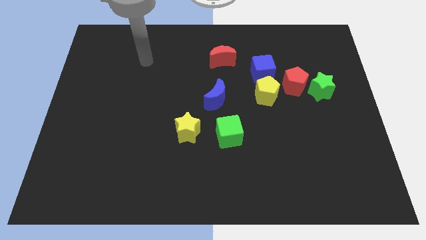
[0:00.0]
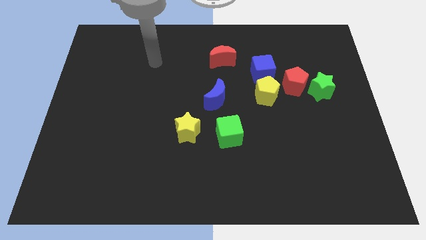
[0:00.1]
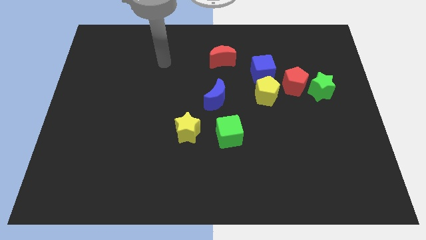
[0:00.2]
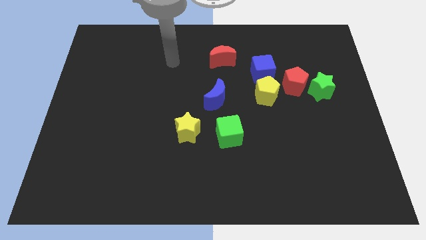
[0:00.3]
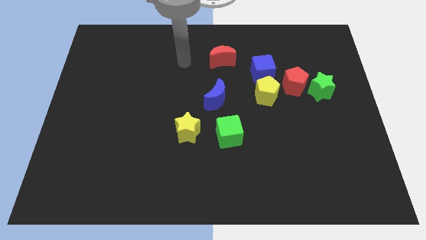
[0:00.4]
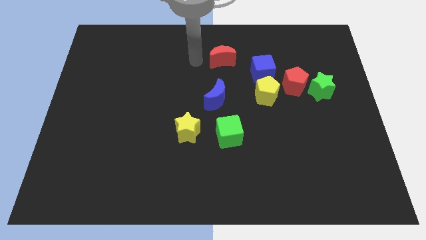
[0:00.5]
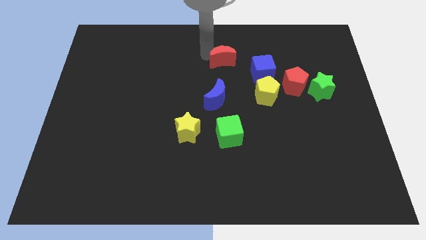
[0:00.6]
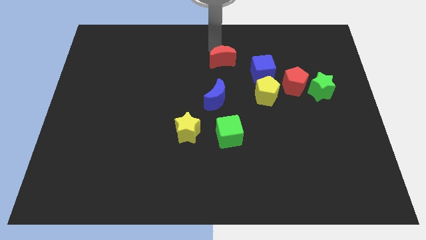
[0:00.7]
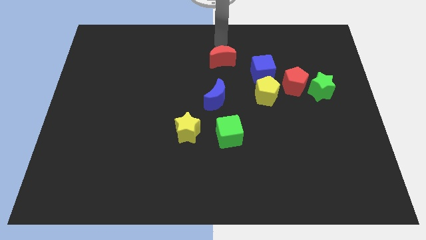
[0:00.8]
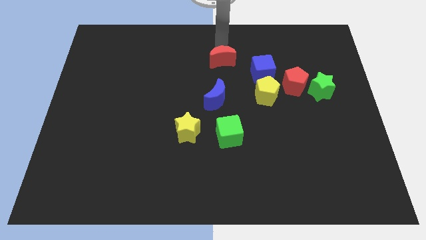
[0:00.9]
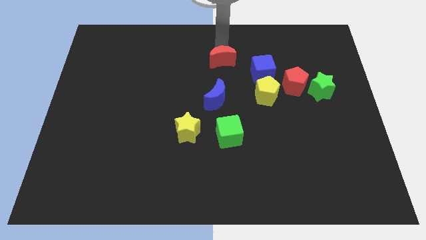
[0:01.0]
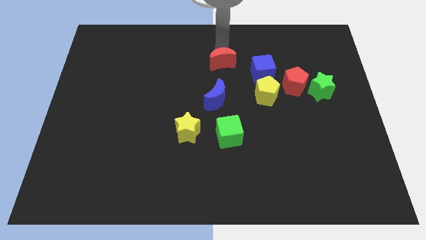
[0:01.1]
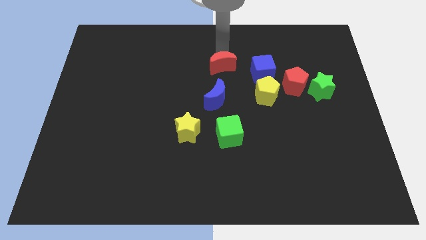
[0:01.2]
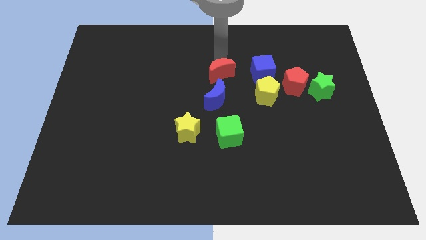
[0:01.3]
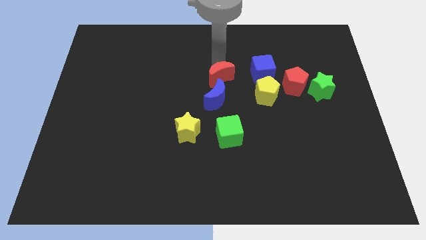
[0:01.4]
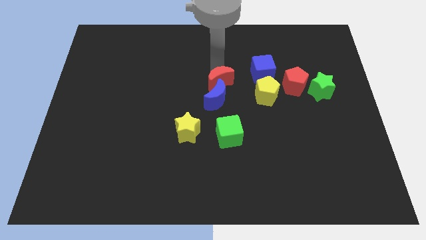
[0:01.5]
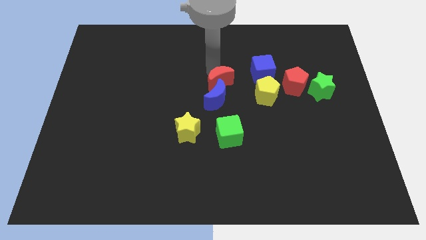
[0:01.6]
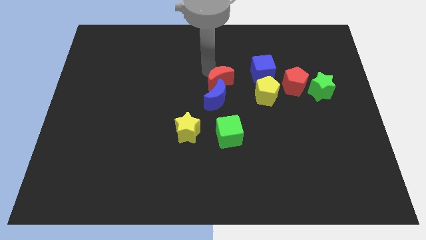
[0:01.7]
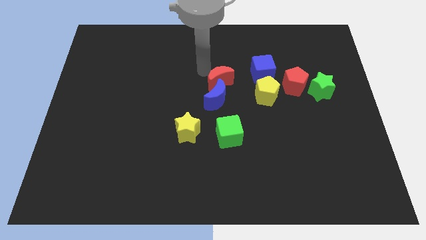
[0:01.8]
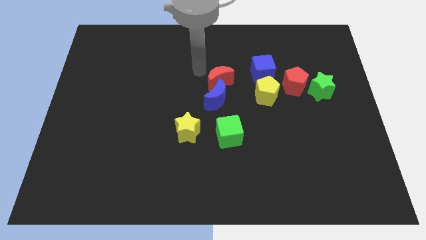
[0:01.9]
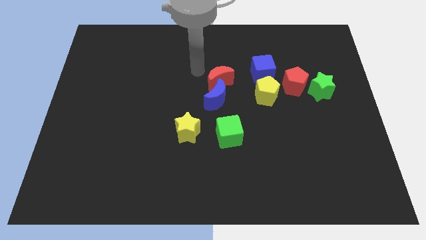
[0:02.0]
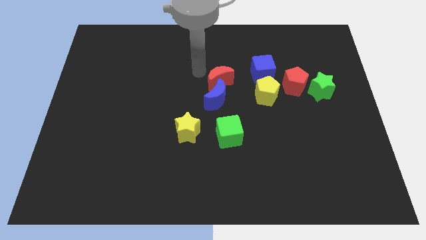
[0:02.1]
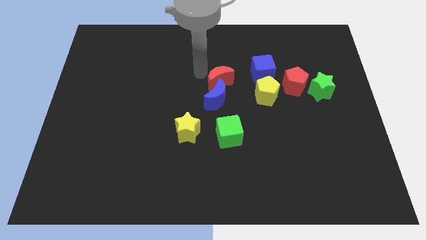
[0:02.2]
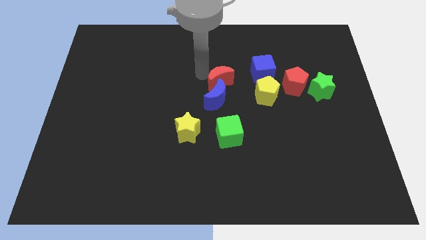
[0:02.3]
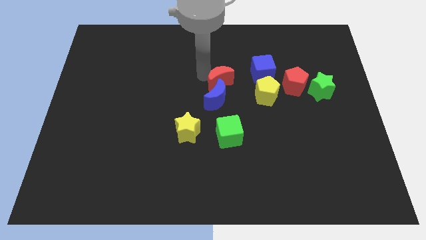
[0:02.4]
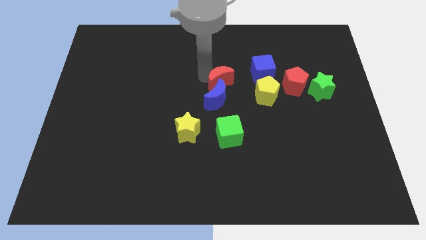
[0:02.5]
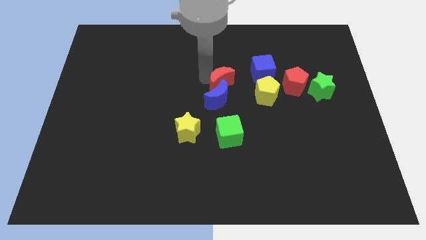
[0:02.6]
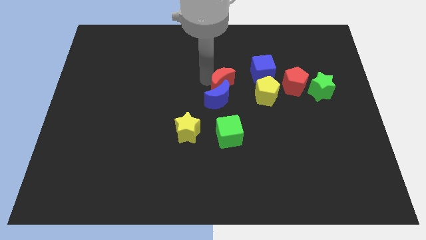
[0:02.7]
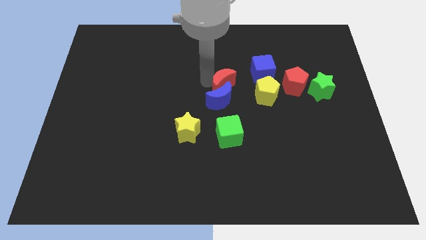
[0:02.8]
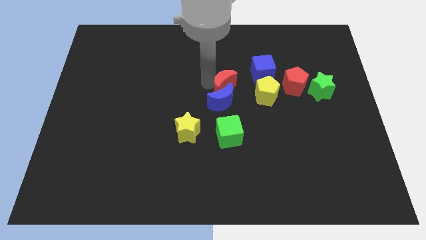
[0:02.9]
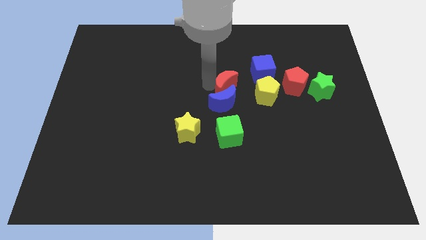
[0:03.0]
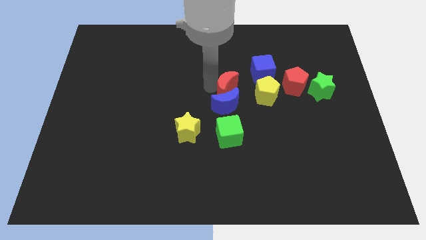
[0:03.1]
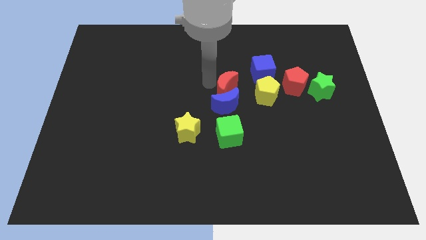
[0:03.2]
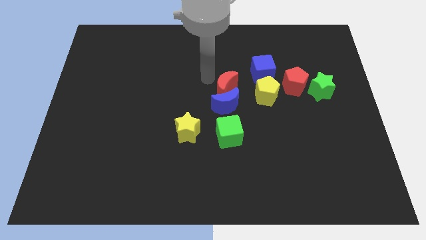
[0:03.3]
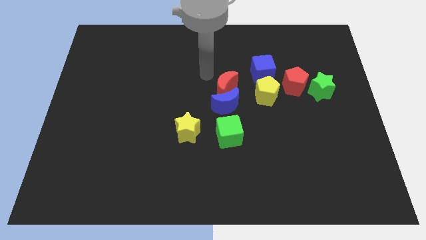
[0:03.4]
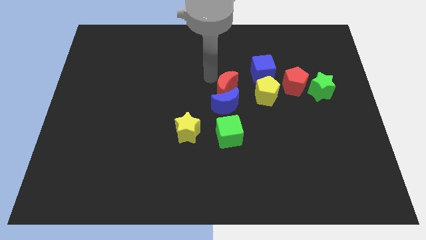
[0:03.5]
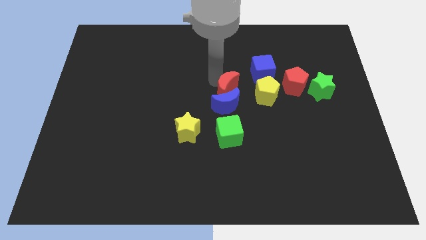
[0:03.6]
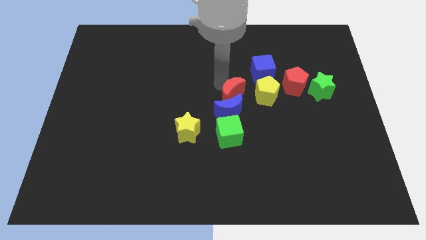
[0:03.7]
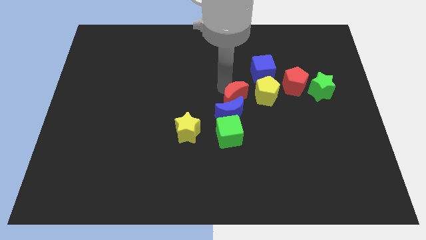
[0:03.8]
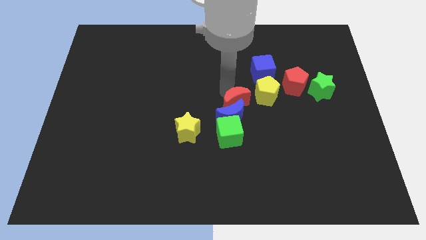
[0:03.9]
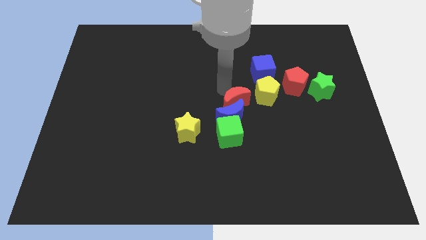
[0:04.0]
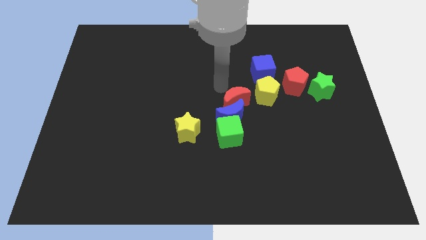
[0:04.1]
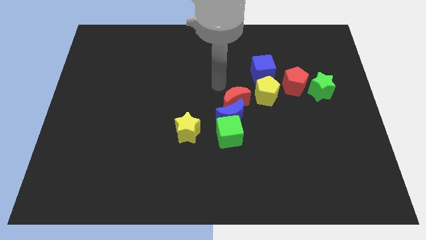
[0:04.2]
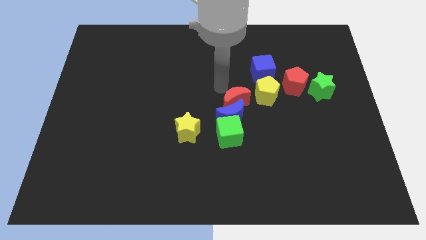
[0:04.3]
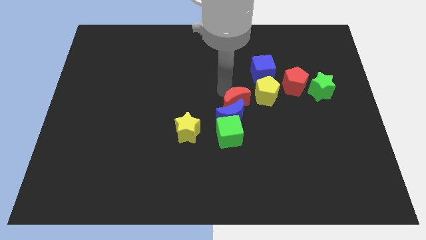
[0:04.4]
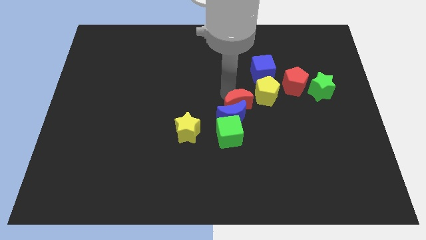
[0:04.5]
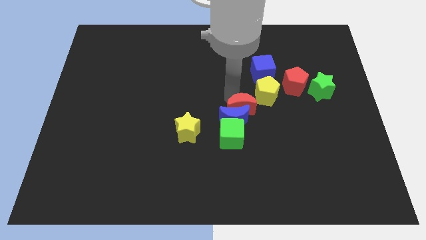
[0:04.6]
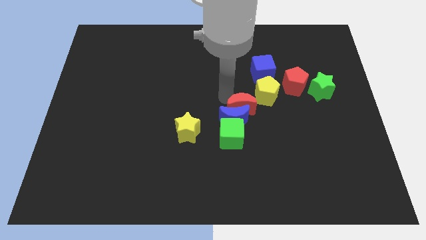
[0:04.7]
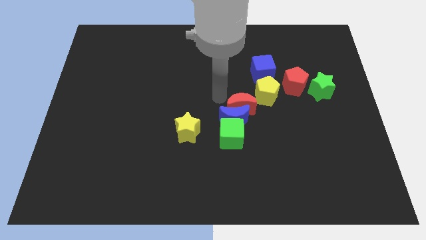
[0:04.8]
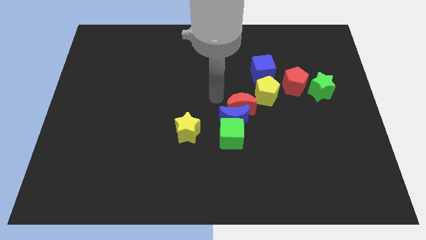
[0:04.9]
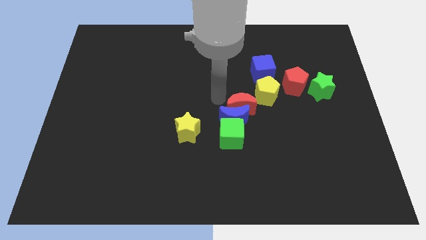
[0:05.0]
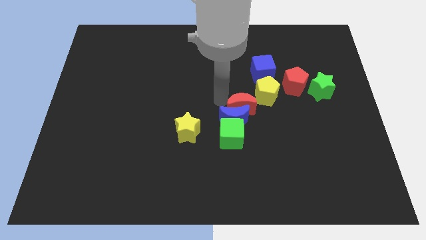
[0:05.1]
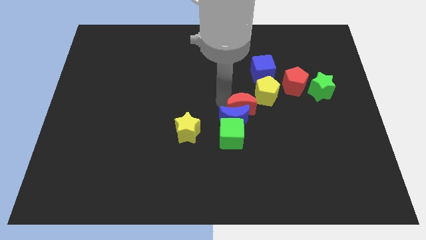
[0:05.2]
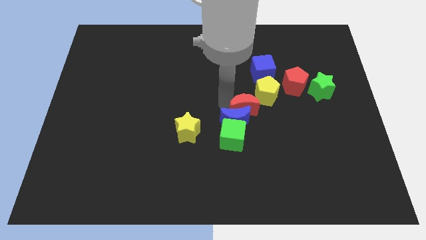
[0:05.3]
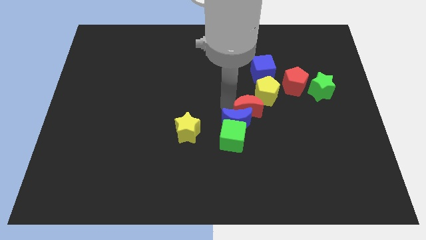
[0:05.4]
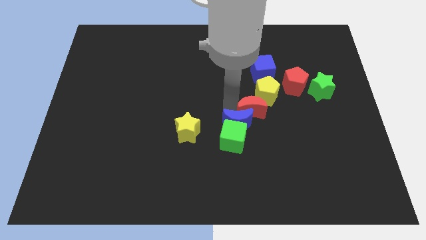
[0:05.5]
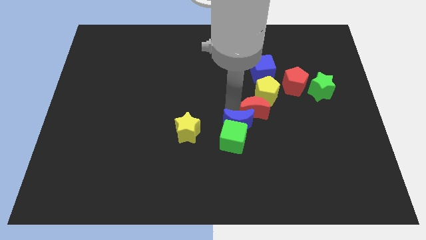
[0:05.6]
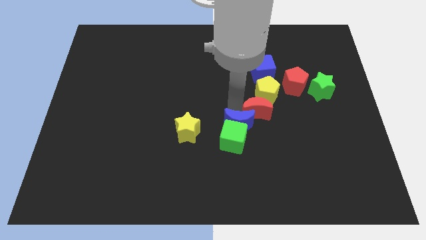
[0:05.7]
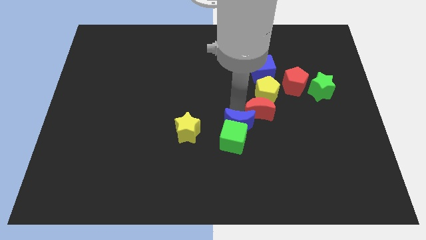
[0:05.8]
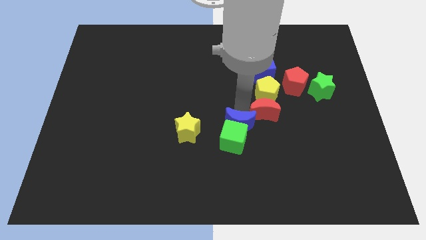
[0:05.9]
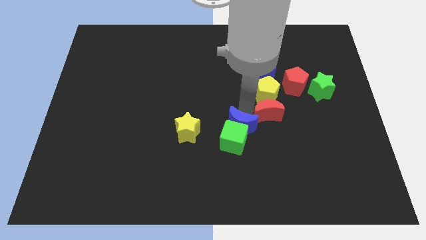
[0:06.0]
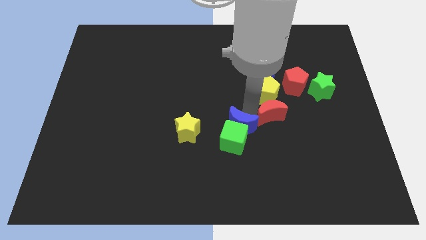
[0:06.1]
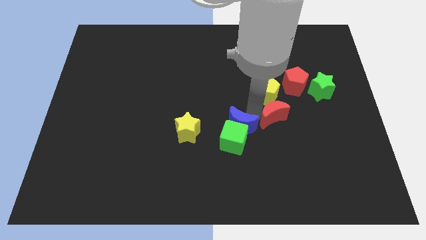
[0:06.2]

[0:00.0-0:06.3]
slide the red moon downwards and to the right diagonally

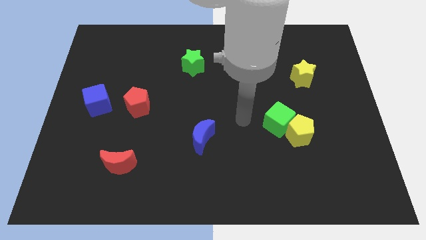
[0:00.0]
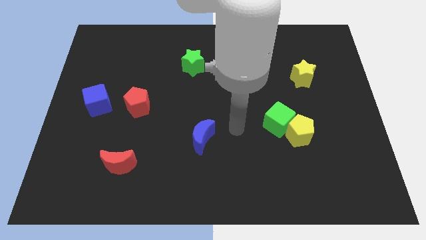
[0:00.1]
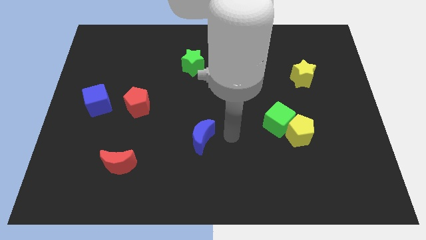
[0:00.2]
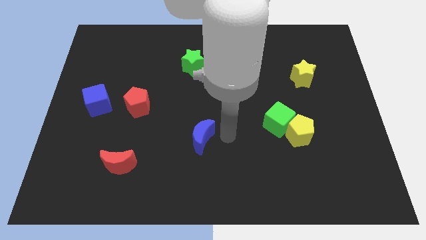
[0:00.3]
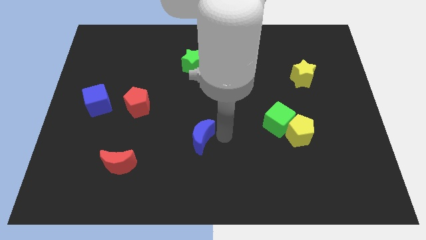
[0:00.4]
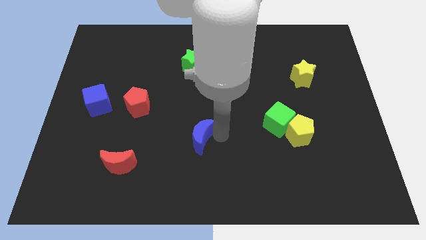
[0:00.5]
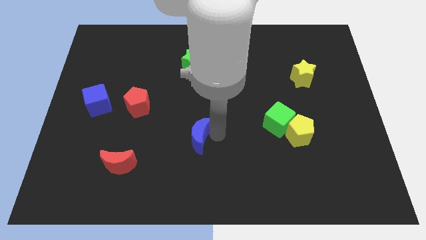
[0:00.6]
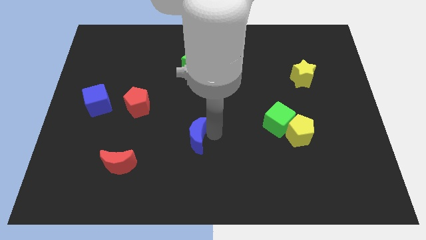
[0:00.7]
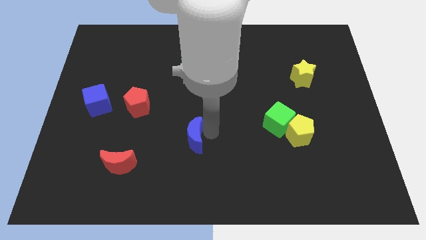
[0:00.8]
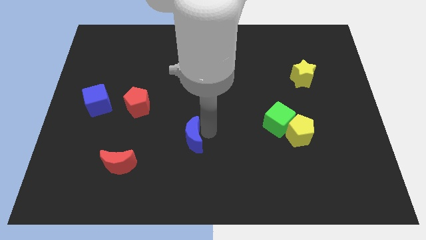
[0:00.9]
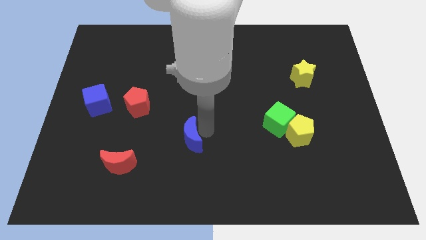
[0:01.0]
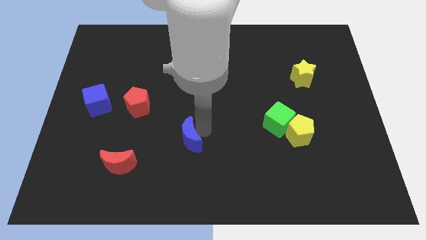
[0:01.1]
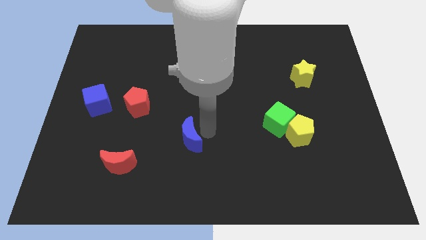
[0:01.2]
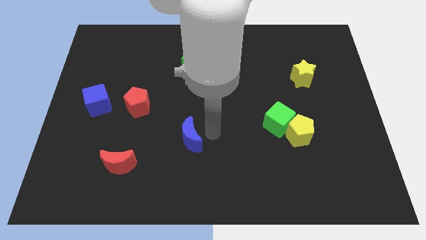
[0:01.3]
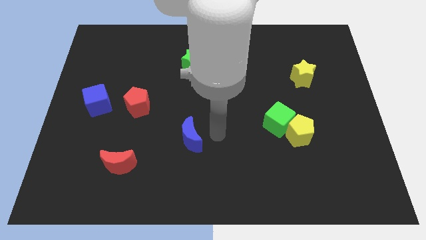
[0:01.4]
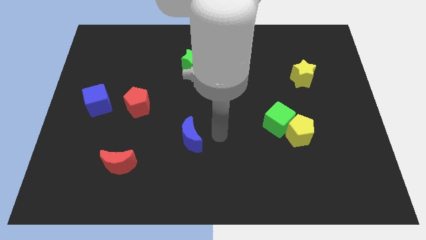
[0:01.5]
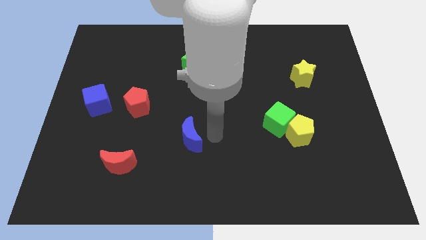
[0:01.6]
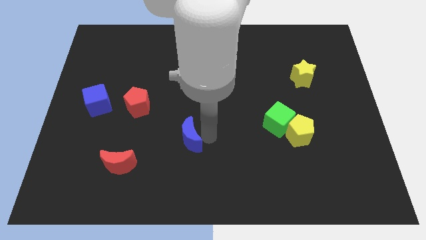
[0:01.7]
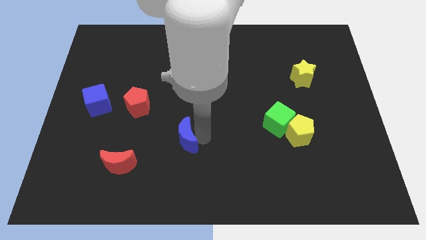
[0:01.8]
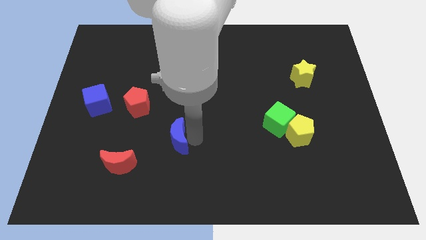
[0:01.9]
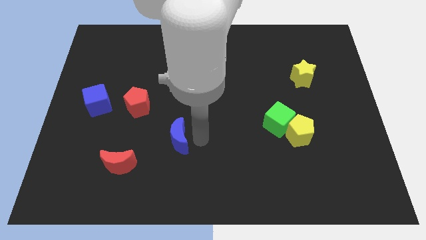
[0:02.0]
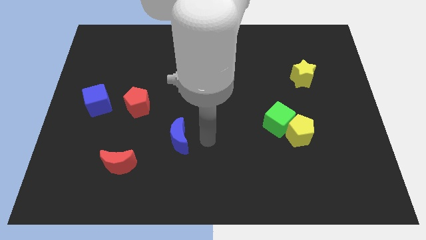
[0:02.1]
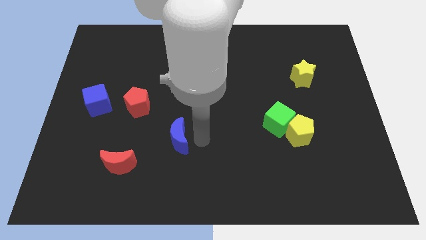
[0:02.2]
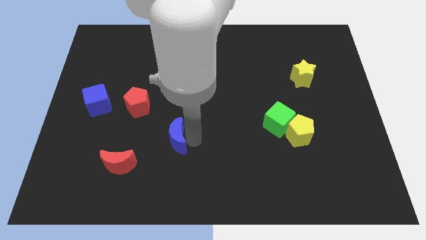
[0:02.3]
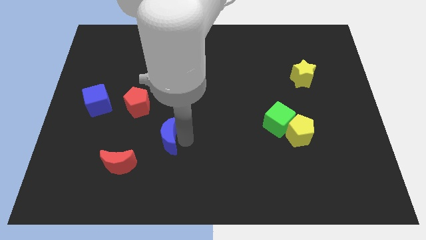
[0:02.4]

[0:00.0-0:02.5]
move the blue moon left a little bit
